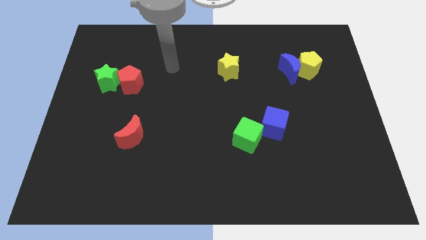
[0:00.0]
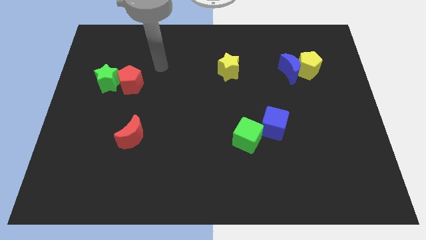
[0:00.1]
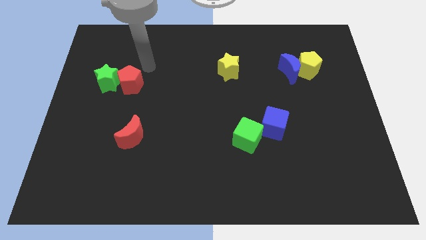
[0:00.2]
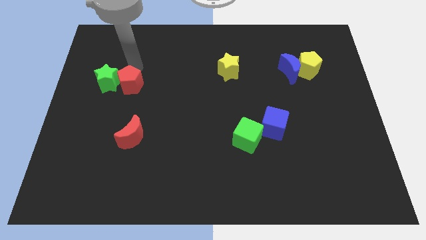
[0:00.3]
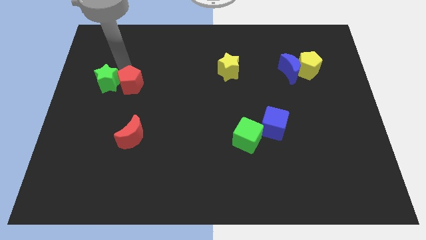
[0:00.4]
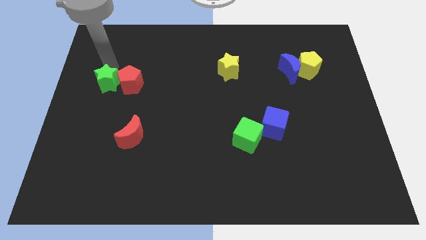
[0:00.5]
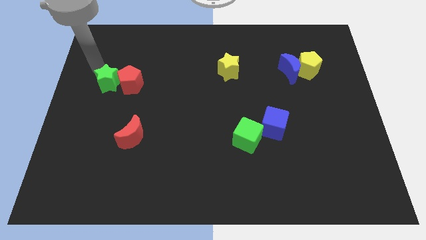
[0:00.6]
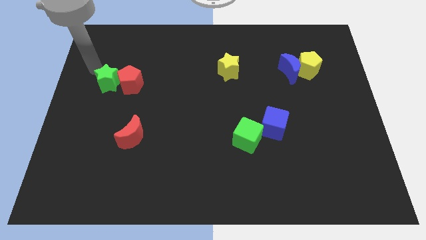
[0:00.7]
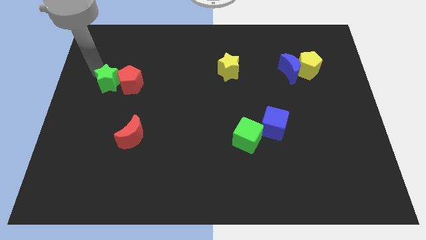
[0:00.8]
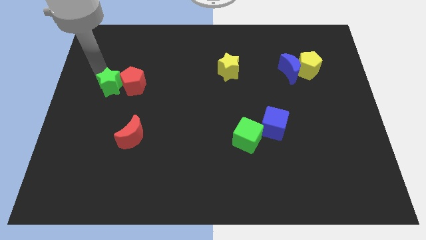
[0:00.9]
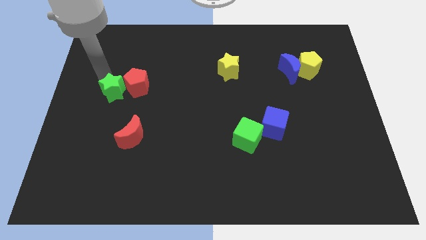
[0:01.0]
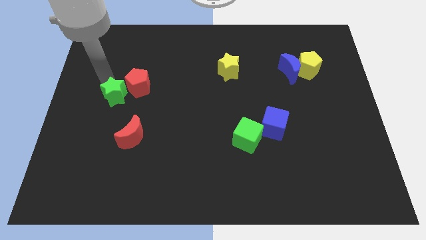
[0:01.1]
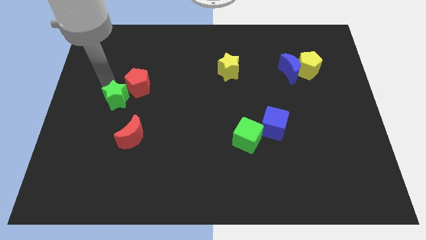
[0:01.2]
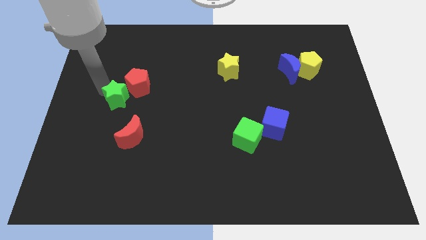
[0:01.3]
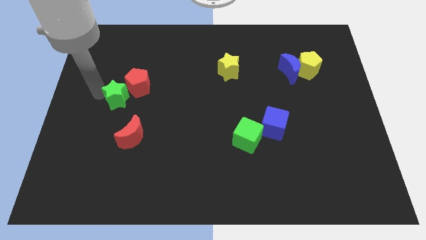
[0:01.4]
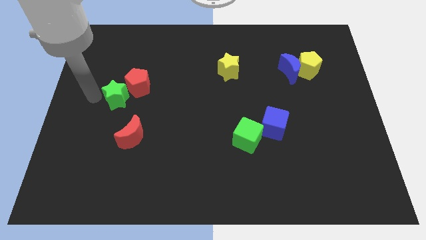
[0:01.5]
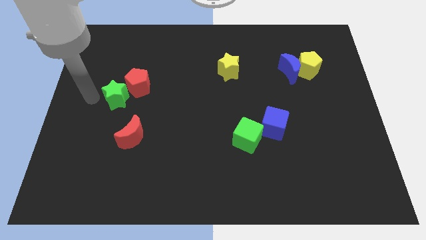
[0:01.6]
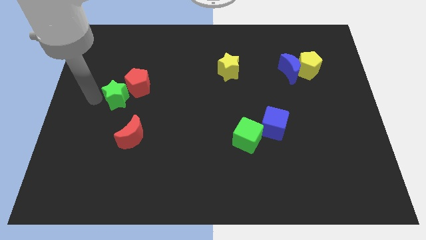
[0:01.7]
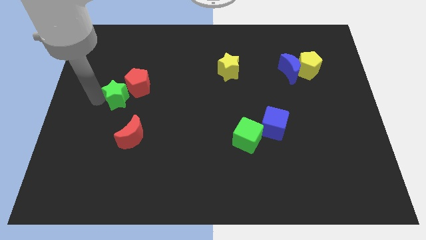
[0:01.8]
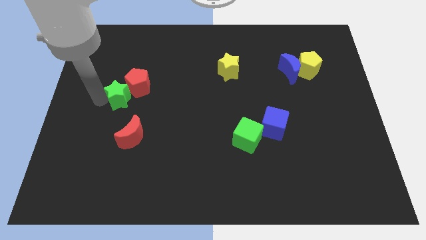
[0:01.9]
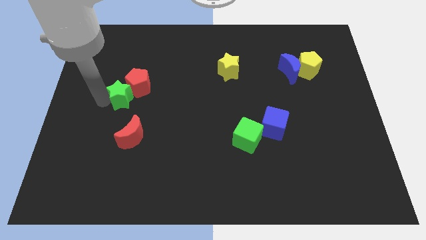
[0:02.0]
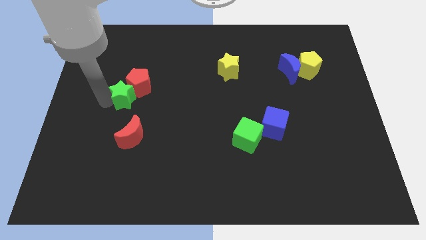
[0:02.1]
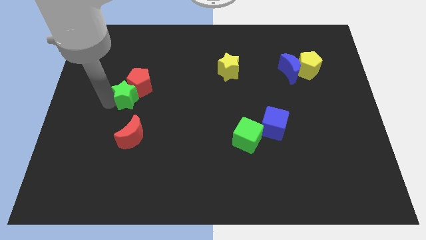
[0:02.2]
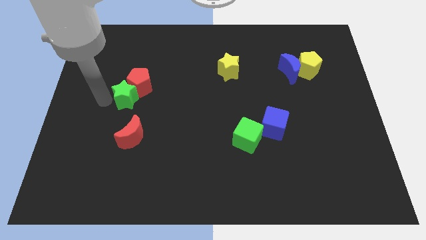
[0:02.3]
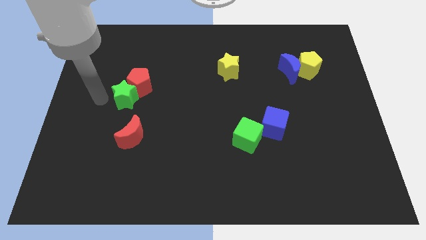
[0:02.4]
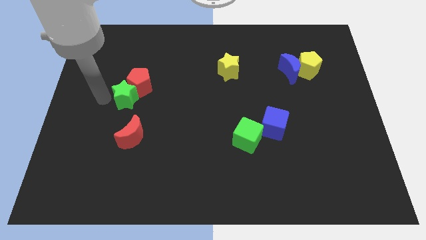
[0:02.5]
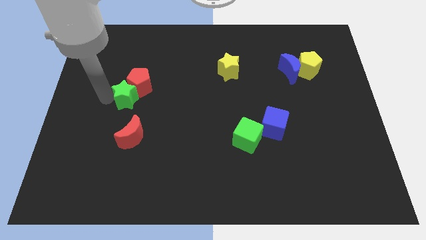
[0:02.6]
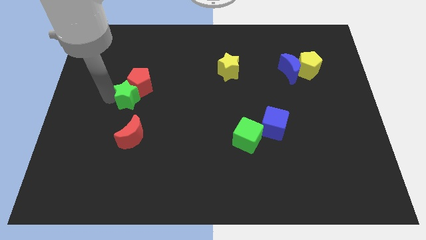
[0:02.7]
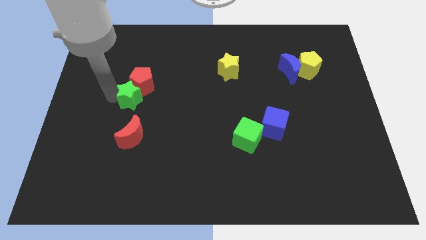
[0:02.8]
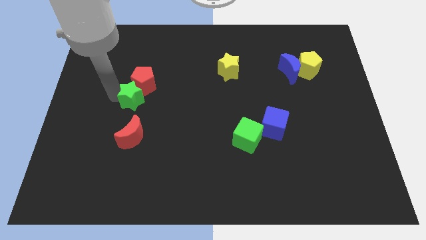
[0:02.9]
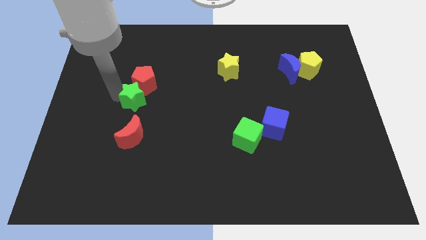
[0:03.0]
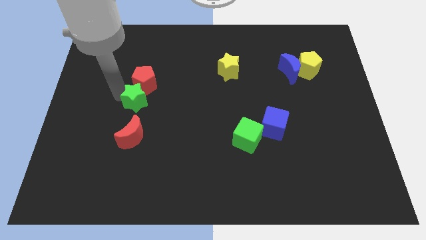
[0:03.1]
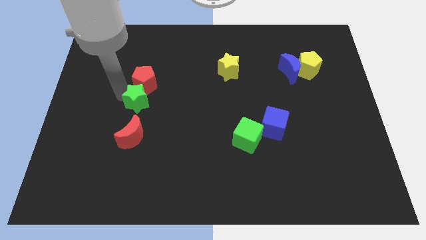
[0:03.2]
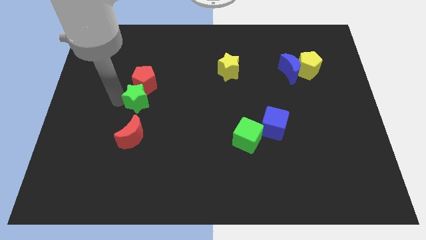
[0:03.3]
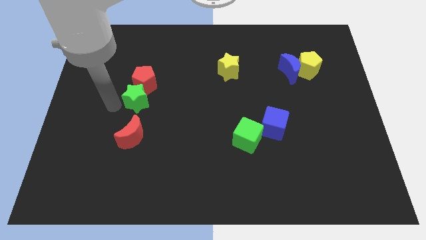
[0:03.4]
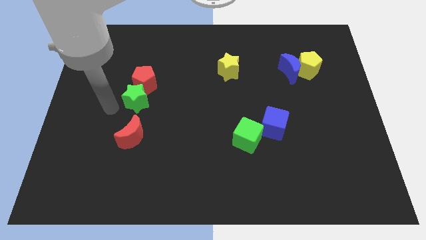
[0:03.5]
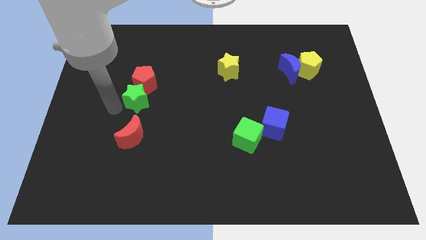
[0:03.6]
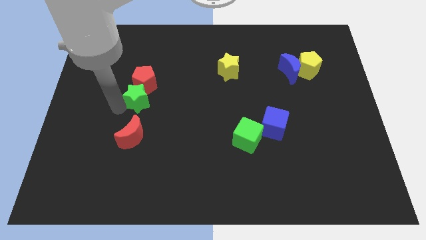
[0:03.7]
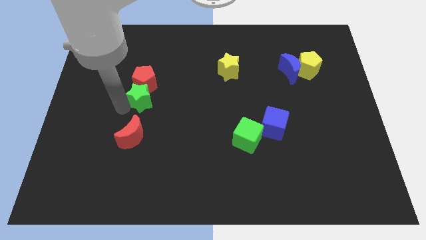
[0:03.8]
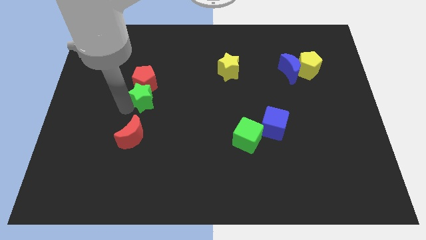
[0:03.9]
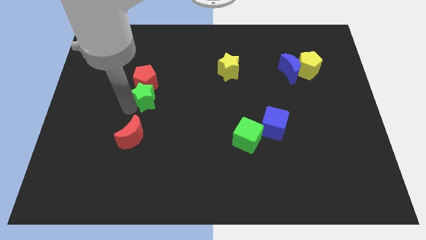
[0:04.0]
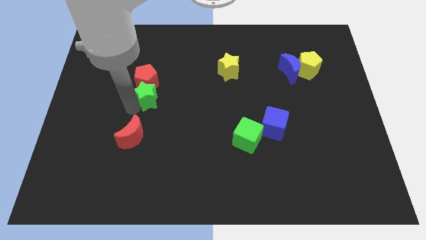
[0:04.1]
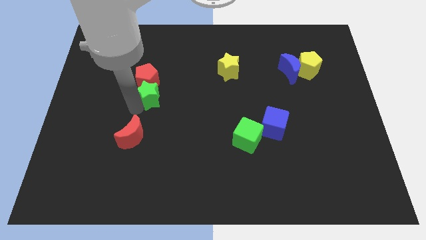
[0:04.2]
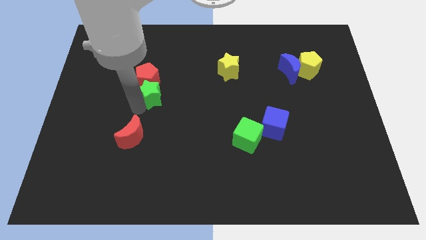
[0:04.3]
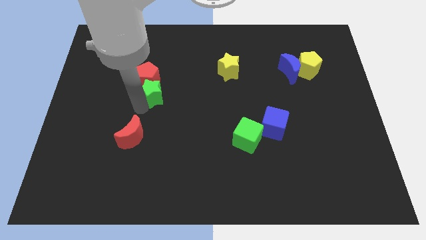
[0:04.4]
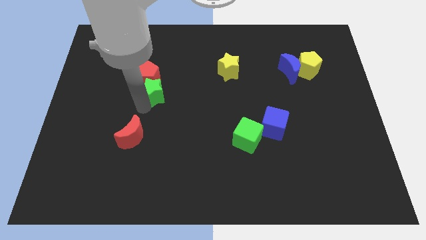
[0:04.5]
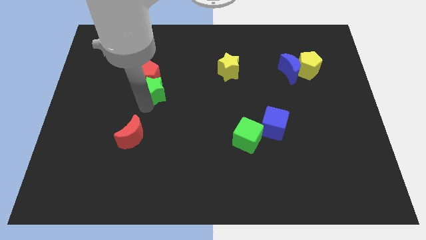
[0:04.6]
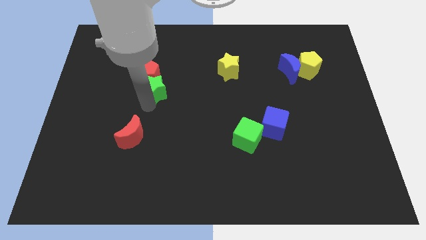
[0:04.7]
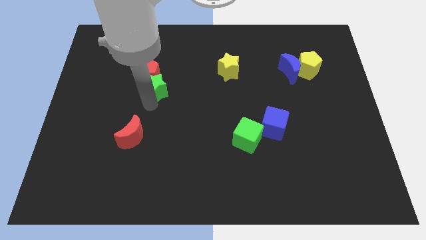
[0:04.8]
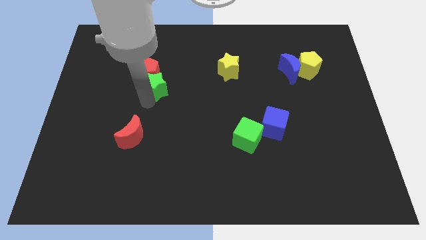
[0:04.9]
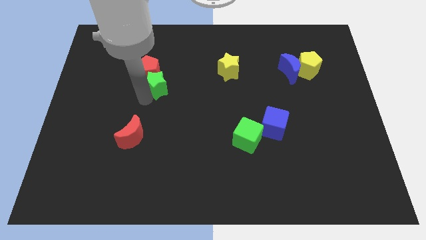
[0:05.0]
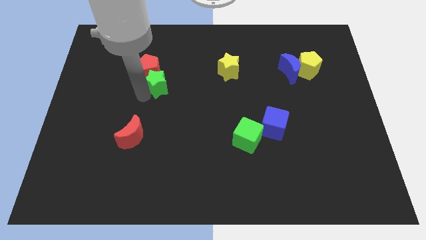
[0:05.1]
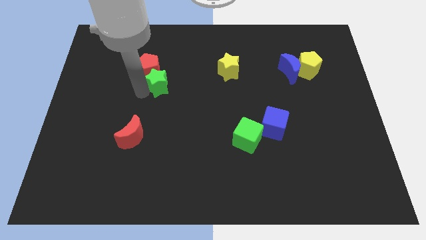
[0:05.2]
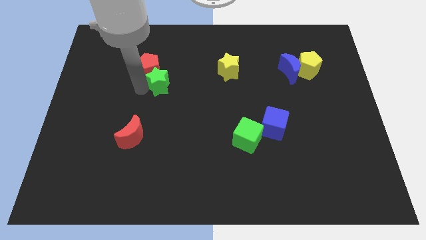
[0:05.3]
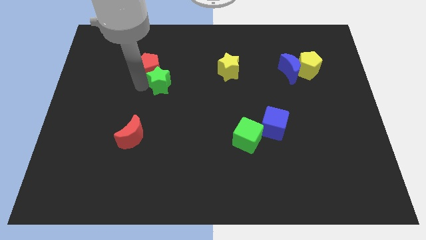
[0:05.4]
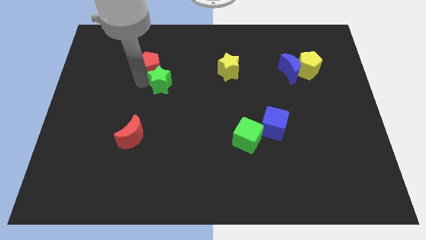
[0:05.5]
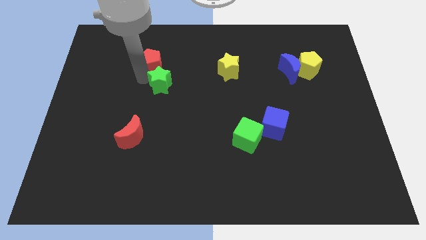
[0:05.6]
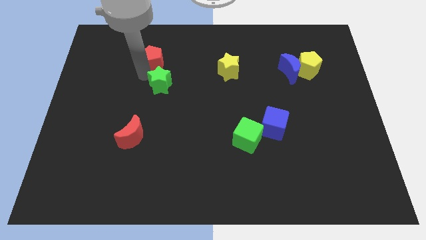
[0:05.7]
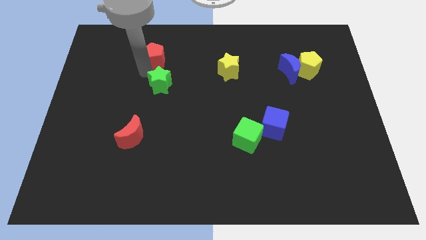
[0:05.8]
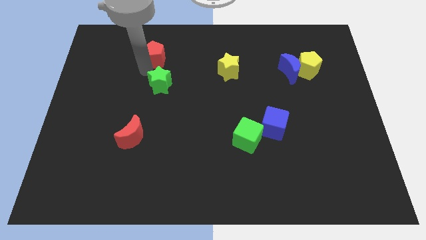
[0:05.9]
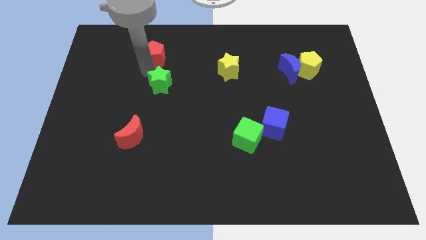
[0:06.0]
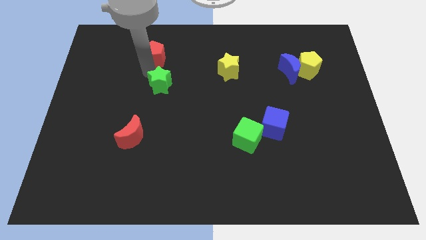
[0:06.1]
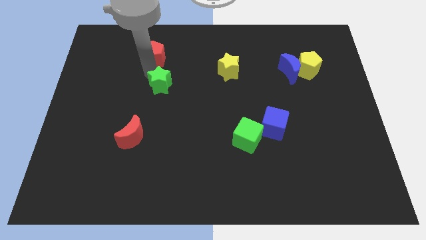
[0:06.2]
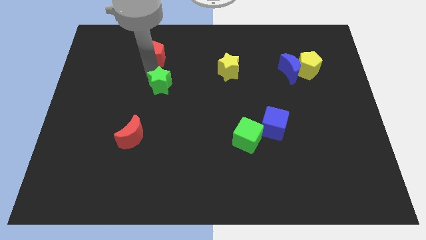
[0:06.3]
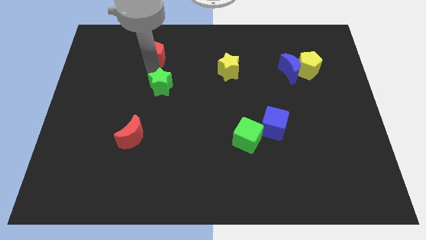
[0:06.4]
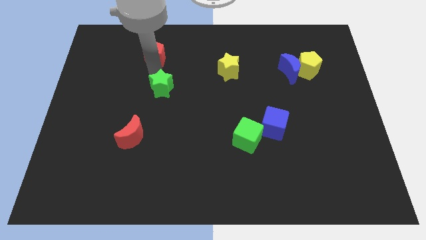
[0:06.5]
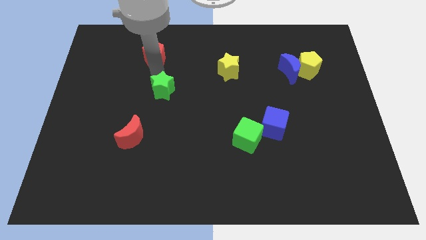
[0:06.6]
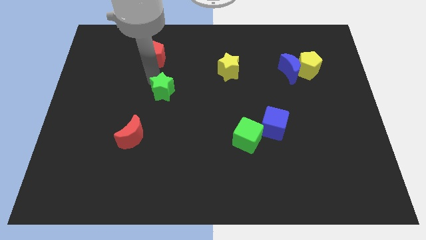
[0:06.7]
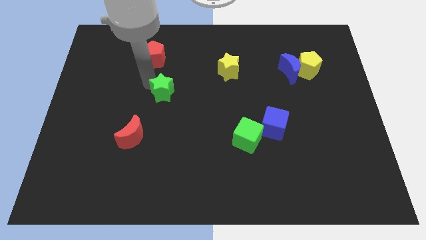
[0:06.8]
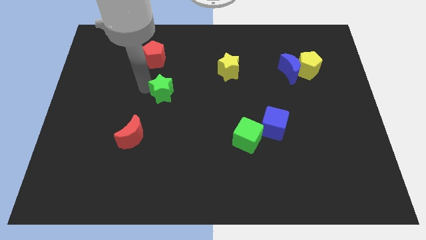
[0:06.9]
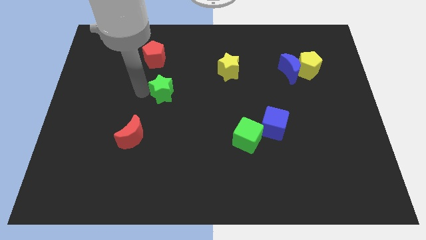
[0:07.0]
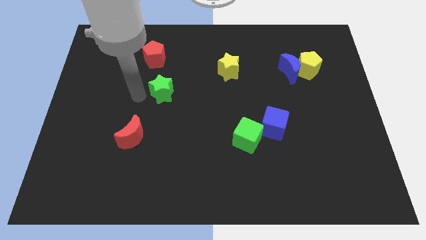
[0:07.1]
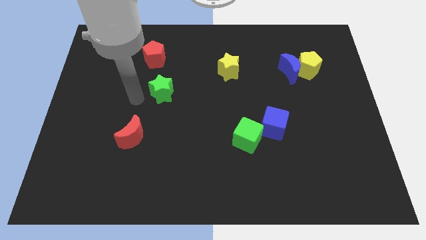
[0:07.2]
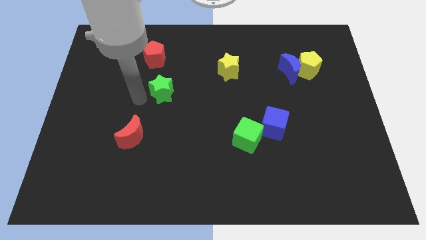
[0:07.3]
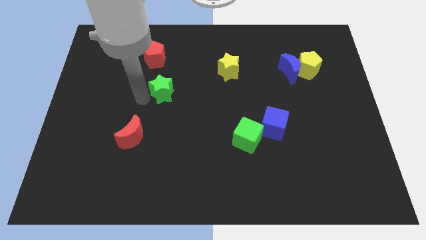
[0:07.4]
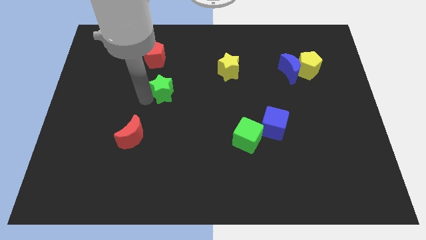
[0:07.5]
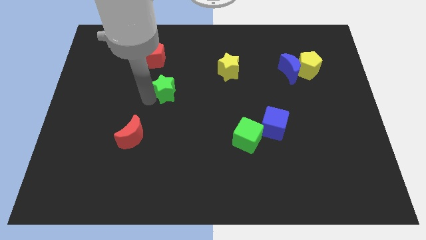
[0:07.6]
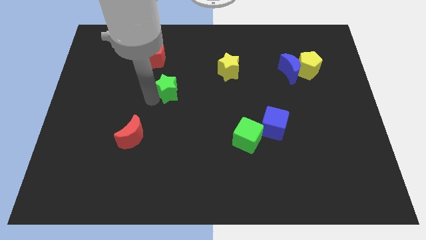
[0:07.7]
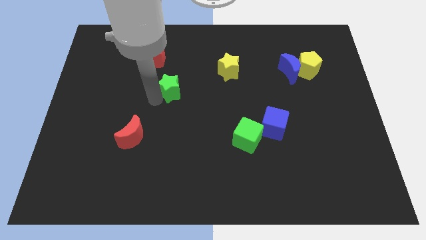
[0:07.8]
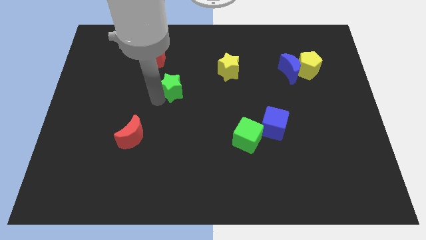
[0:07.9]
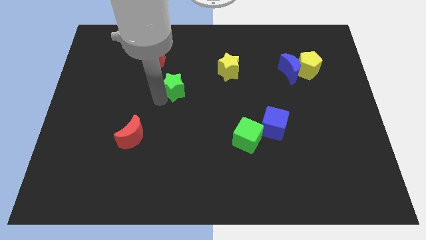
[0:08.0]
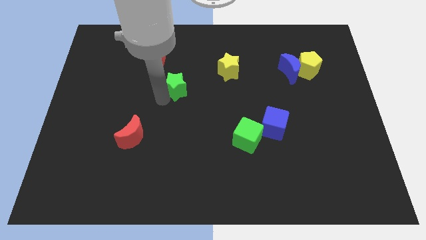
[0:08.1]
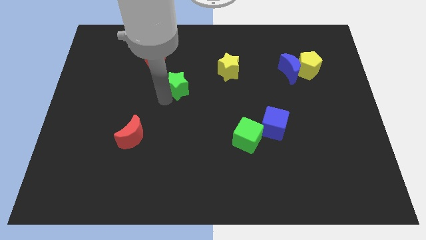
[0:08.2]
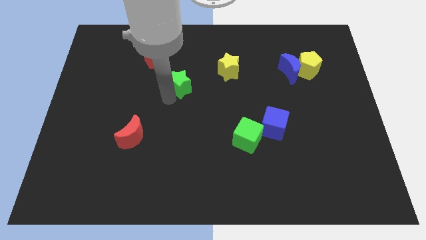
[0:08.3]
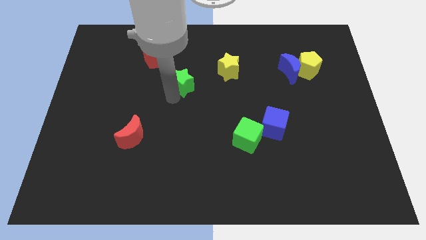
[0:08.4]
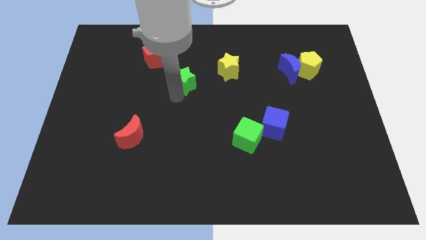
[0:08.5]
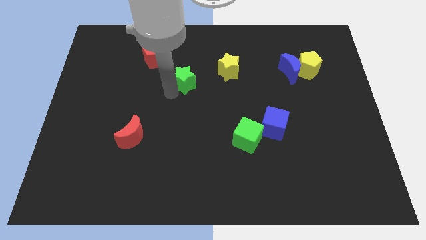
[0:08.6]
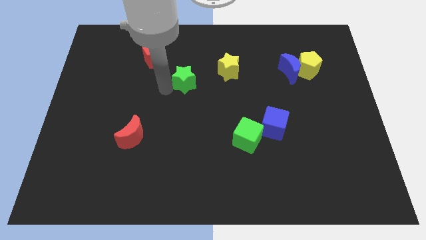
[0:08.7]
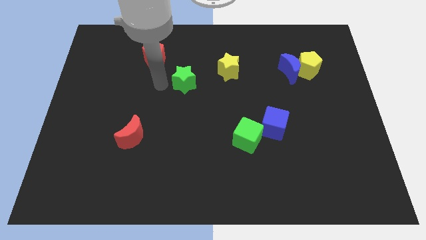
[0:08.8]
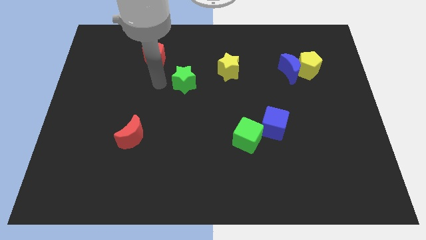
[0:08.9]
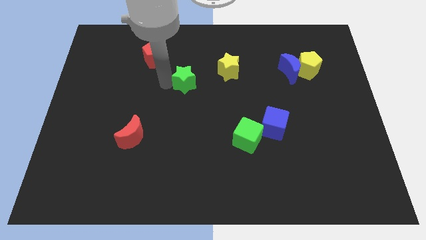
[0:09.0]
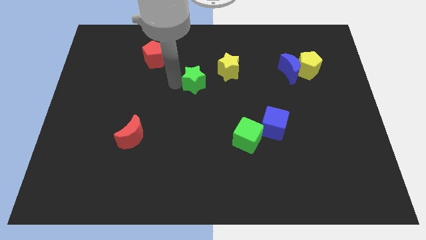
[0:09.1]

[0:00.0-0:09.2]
slide the green star right
